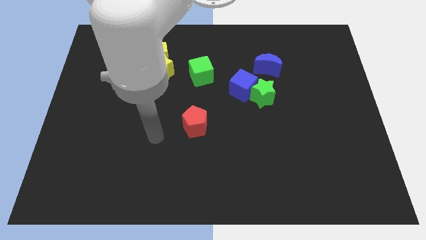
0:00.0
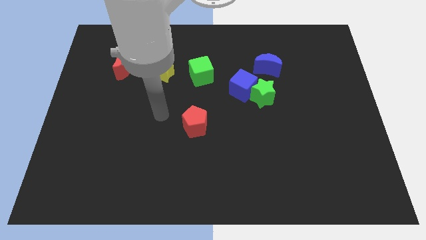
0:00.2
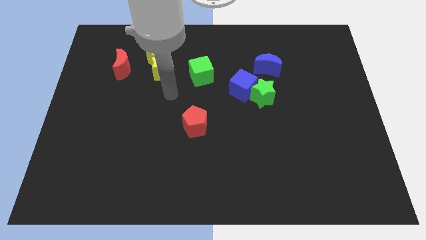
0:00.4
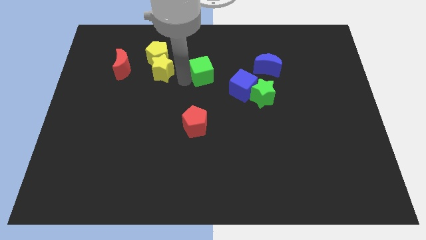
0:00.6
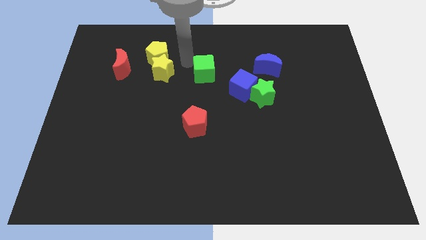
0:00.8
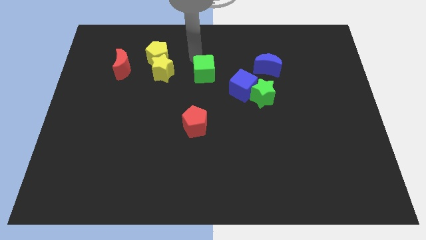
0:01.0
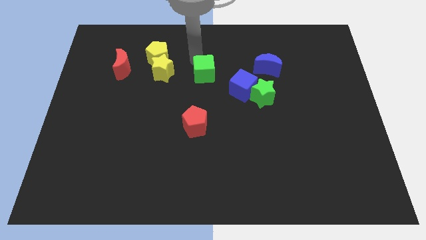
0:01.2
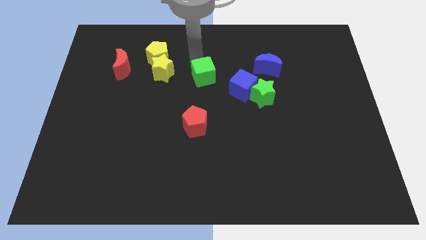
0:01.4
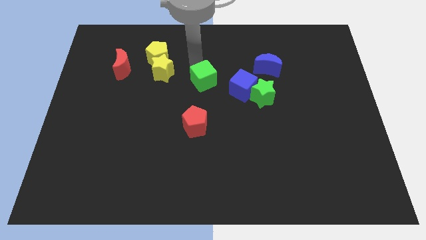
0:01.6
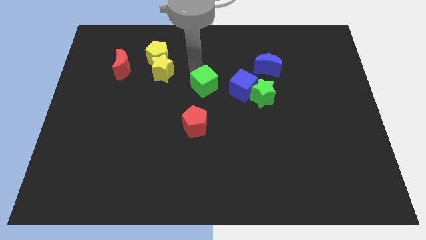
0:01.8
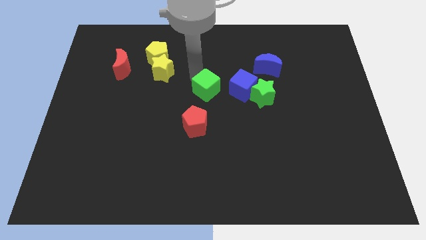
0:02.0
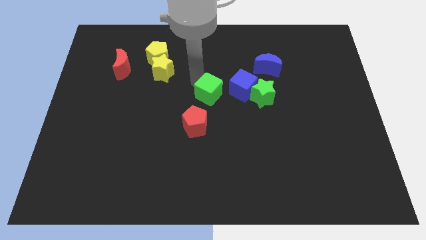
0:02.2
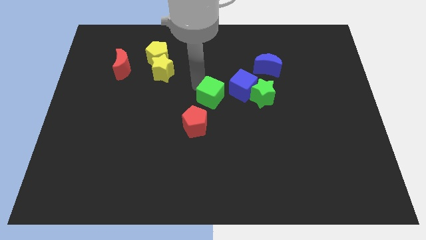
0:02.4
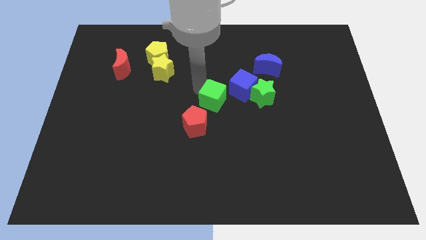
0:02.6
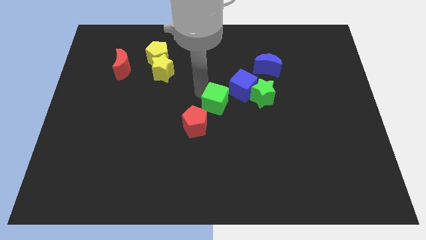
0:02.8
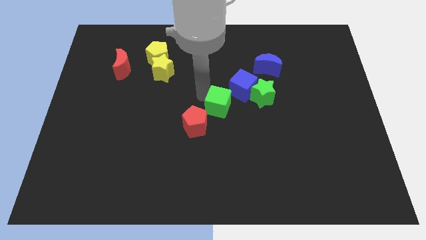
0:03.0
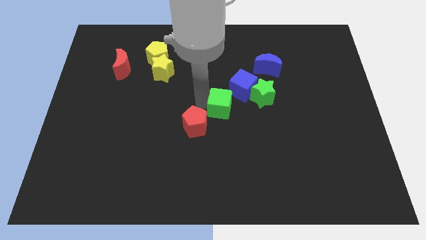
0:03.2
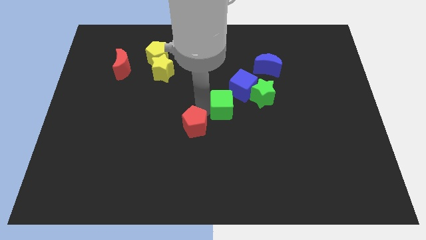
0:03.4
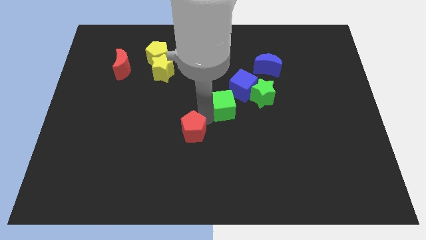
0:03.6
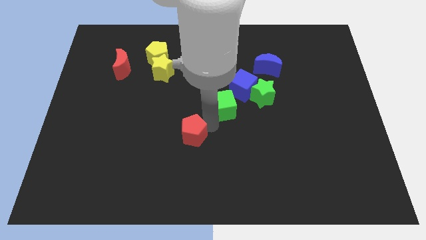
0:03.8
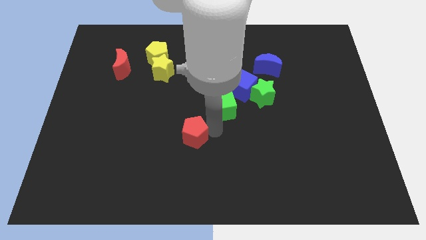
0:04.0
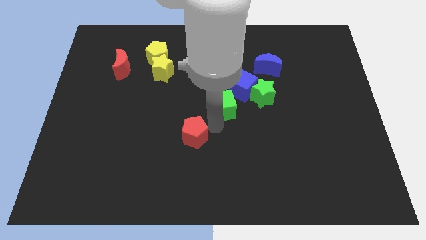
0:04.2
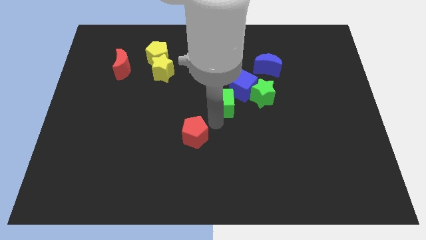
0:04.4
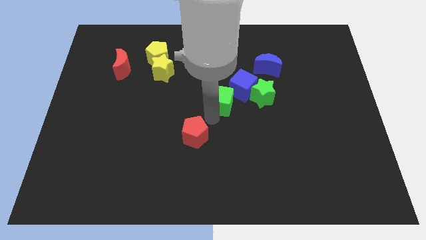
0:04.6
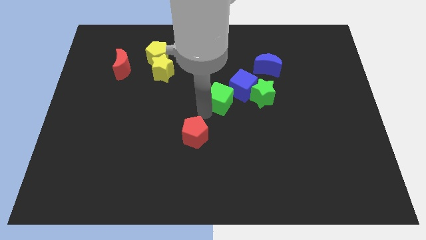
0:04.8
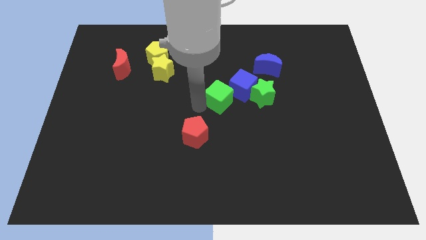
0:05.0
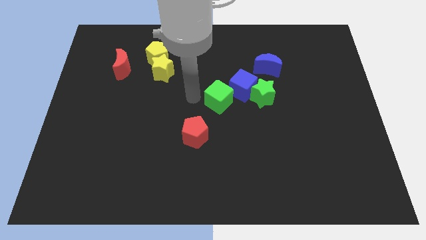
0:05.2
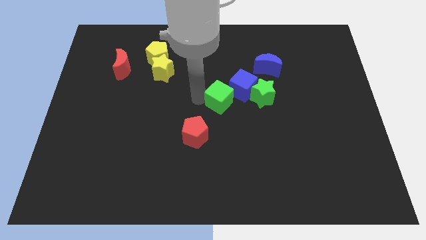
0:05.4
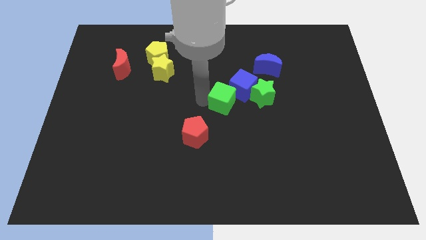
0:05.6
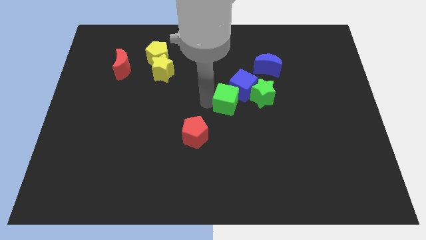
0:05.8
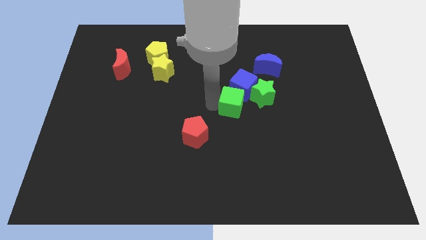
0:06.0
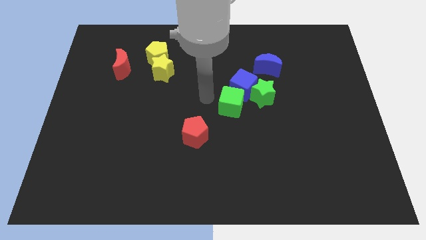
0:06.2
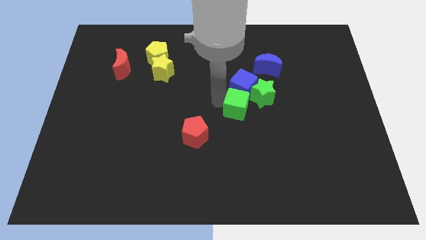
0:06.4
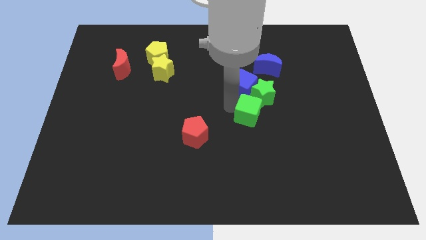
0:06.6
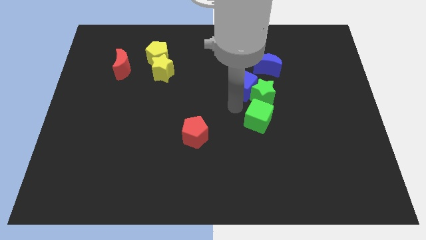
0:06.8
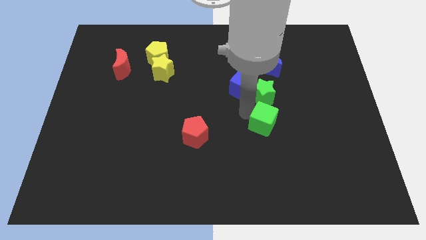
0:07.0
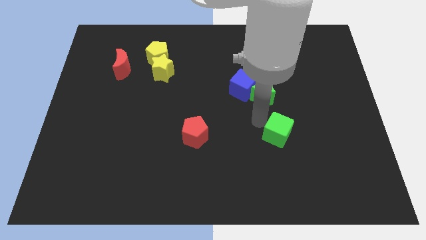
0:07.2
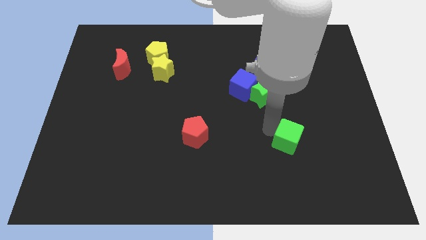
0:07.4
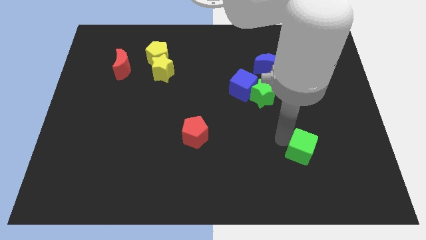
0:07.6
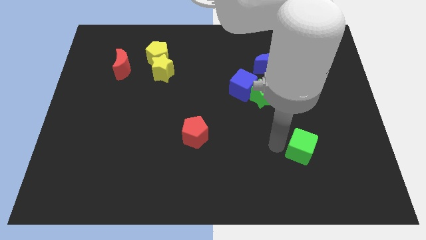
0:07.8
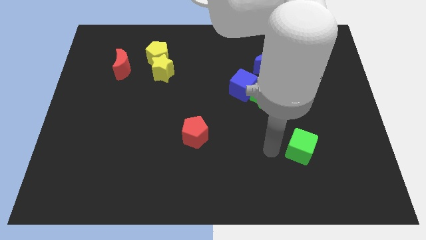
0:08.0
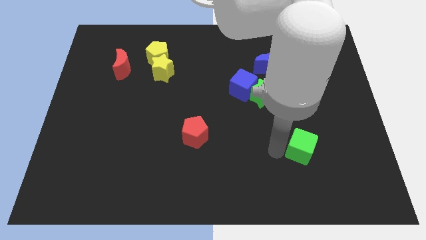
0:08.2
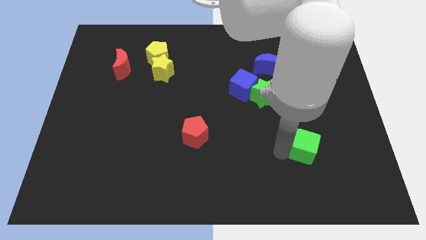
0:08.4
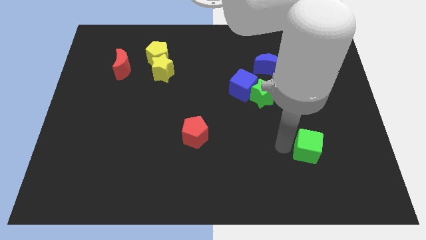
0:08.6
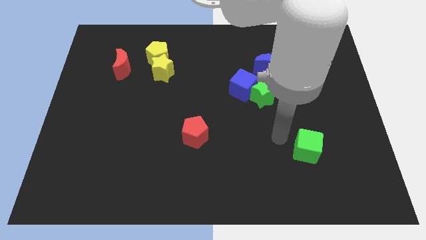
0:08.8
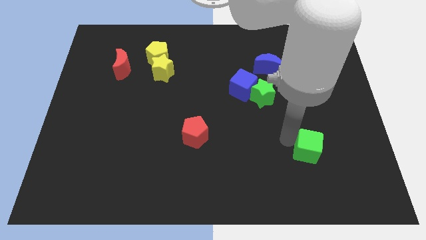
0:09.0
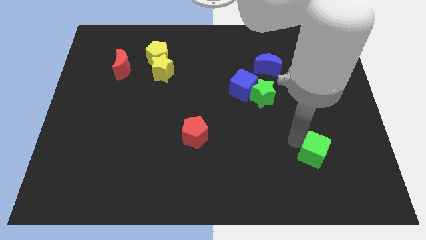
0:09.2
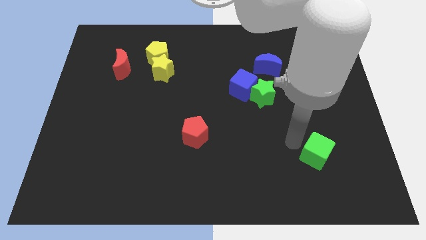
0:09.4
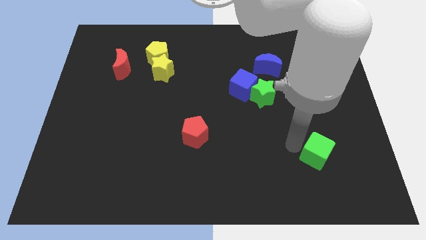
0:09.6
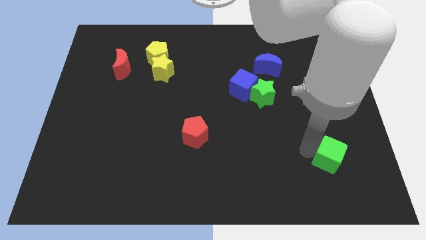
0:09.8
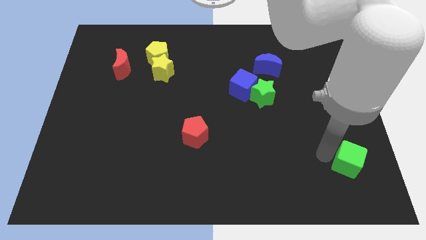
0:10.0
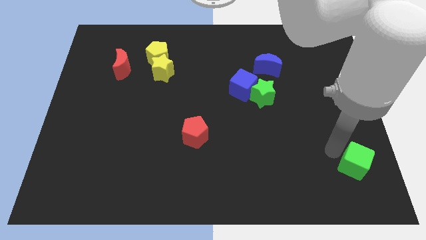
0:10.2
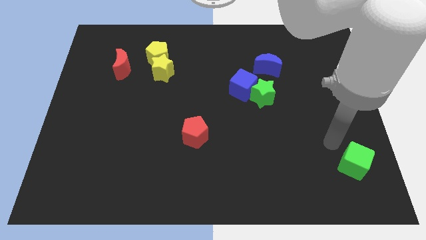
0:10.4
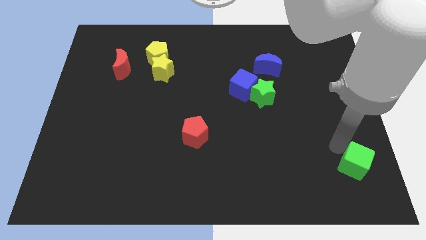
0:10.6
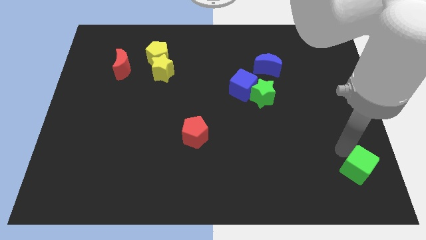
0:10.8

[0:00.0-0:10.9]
slide the green cube to the lower right corner
